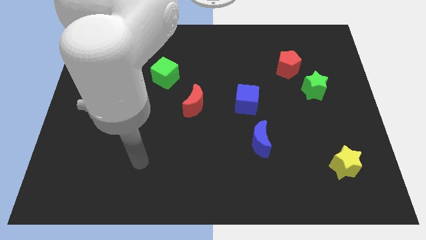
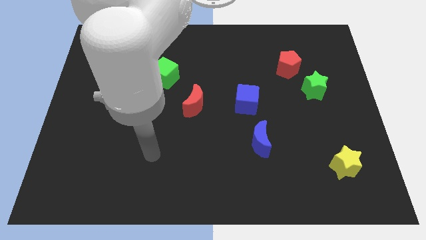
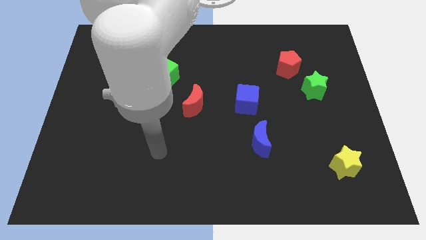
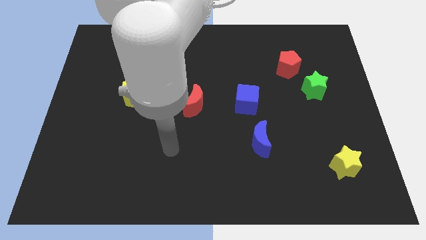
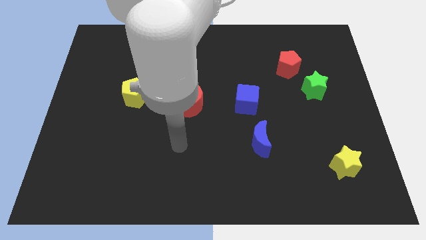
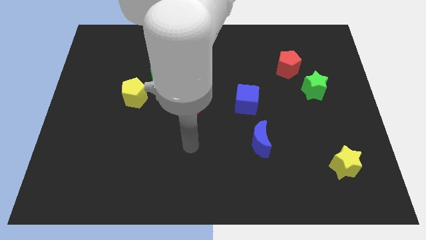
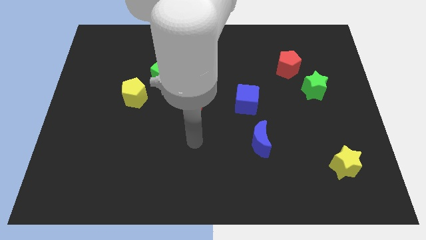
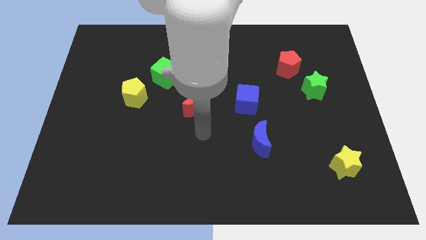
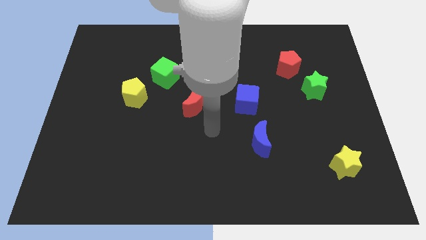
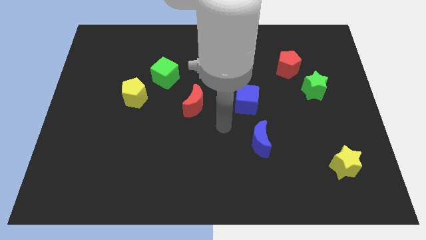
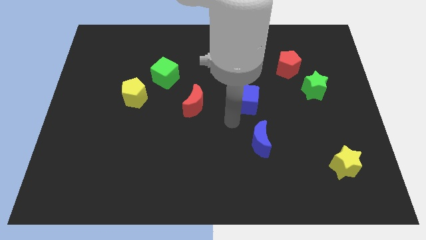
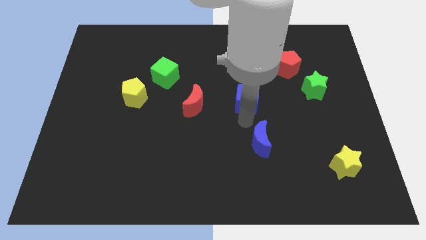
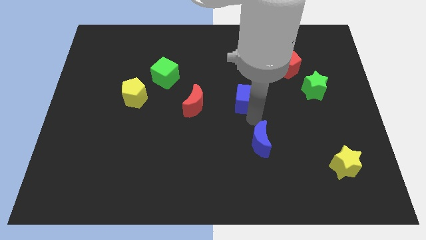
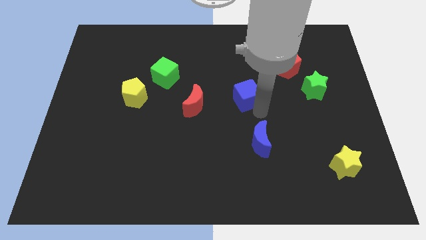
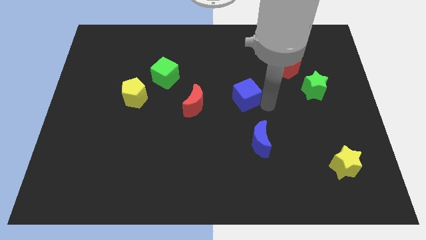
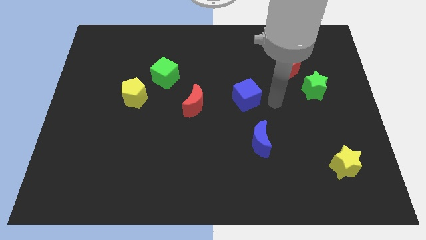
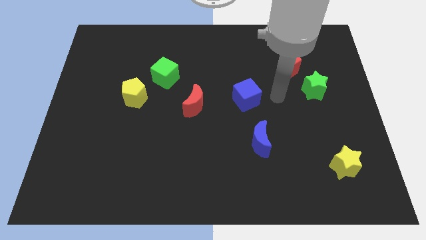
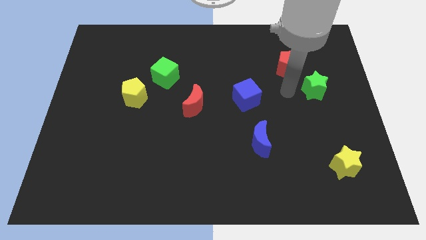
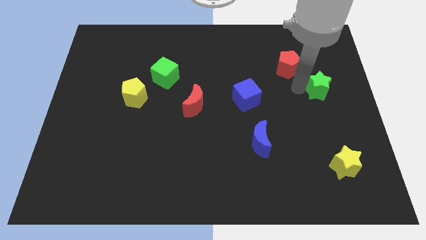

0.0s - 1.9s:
move the red pentagon away from the green star

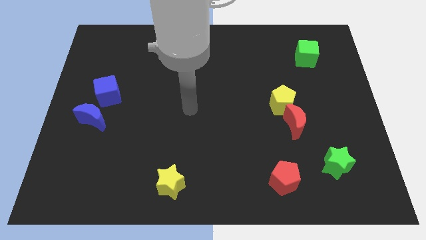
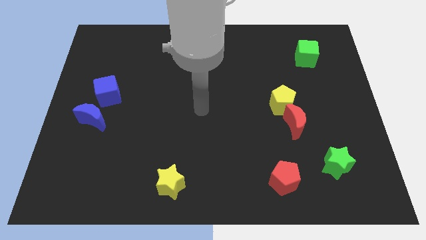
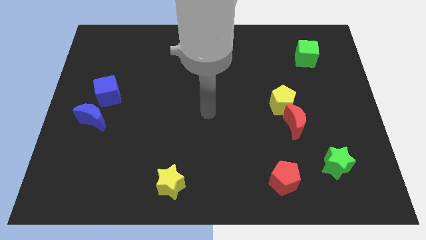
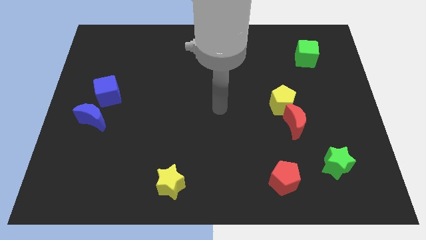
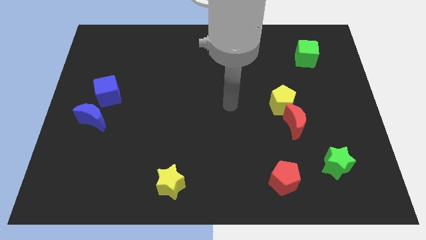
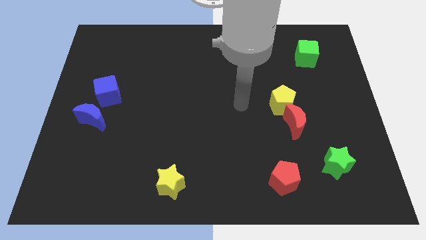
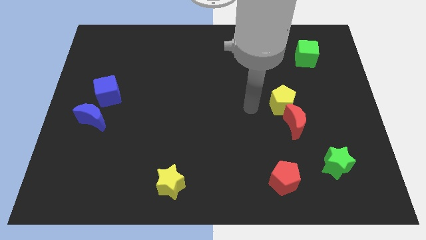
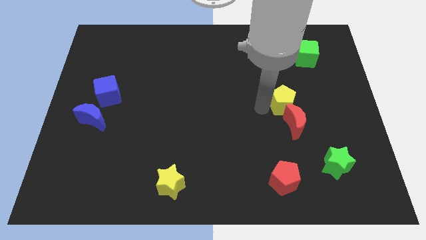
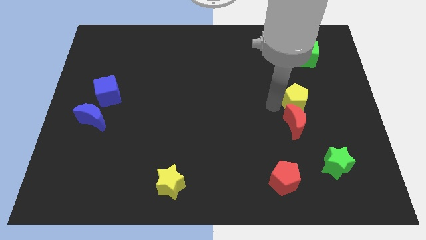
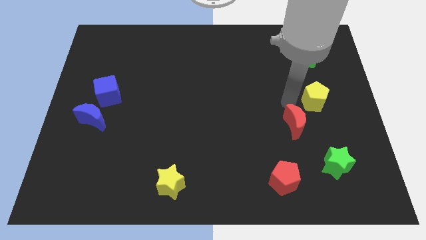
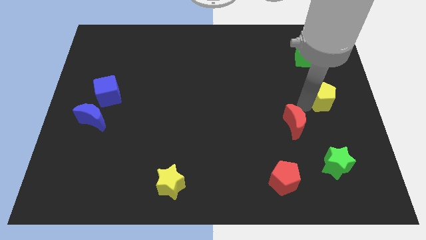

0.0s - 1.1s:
move the red moon away from the yellow pentagon

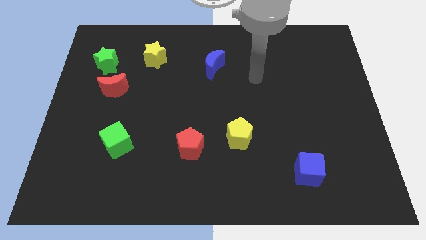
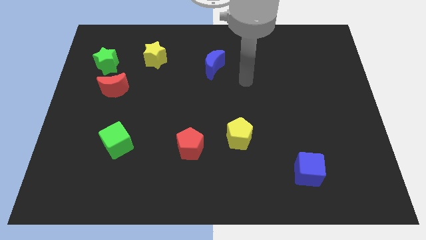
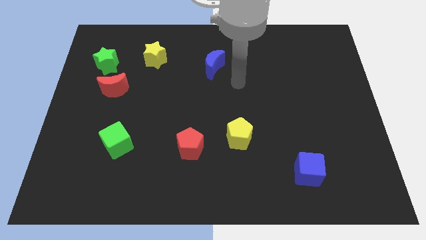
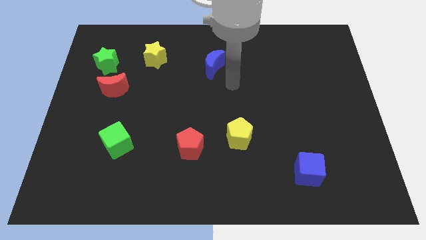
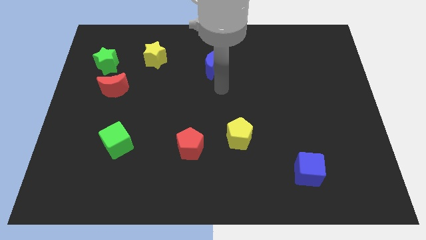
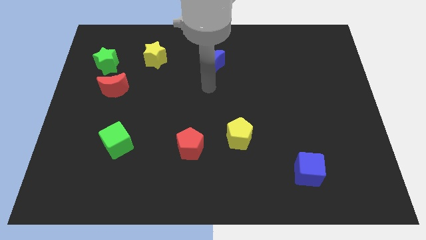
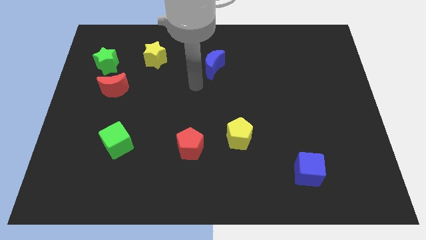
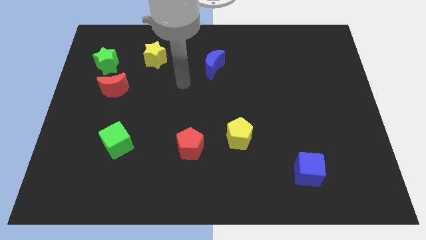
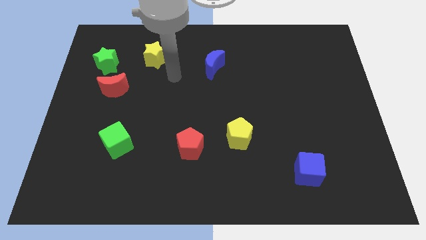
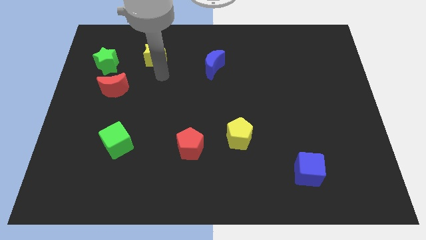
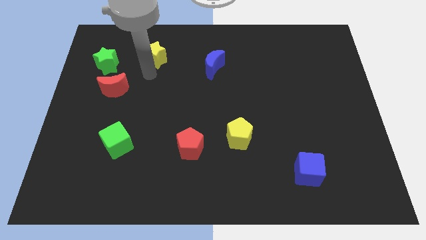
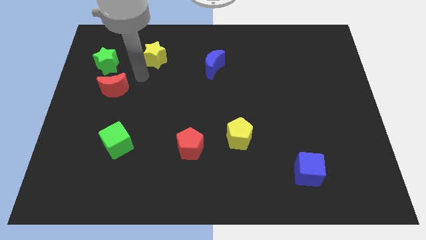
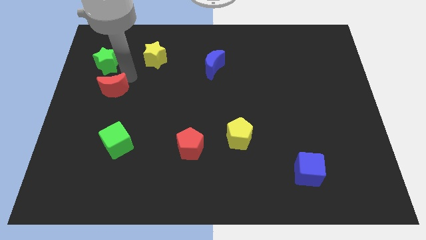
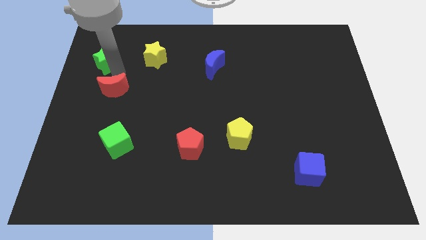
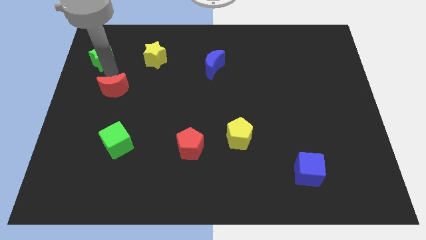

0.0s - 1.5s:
move the red moon away from the green star

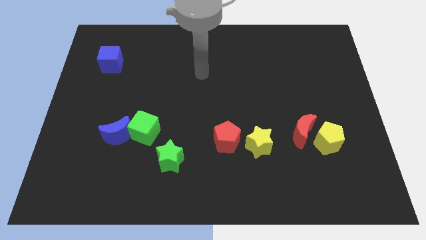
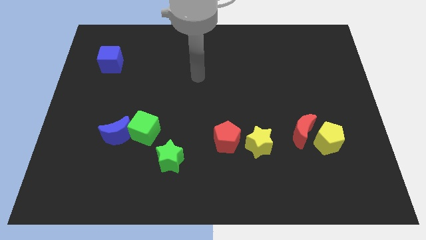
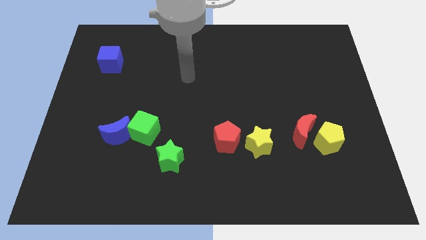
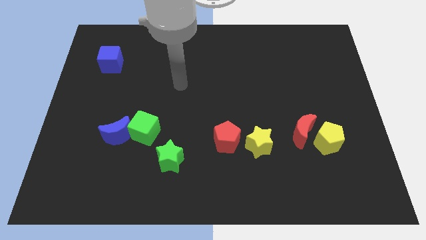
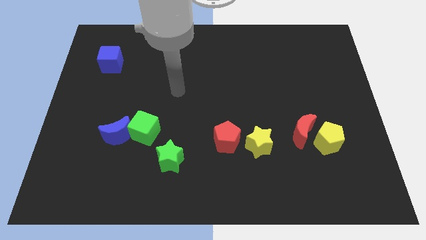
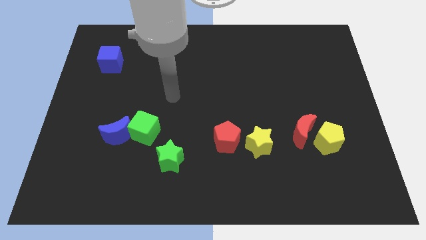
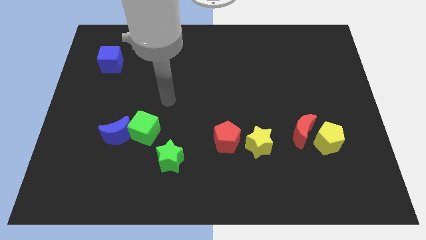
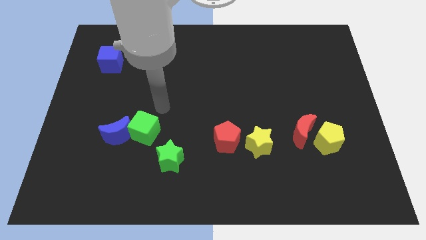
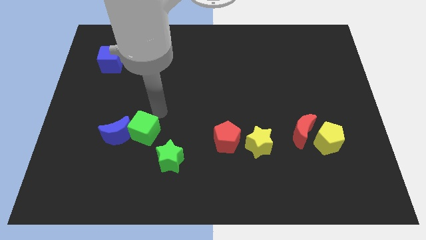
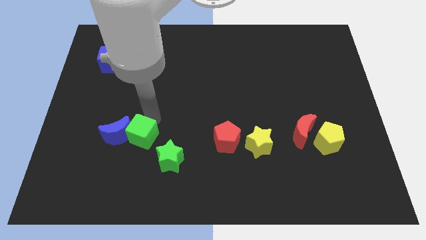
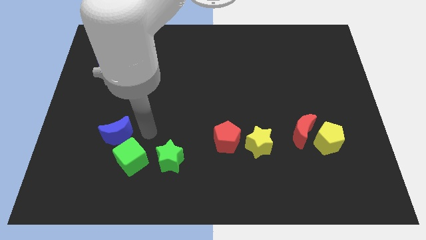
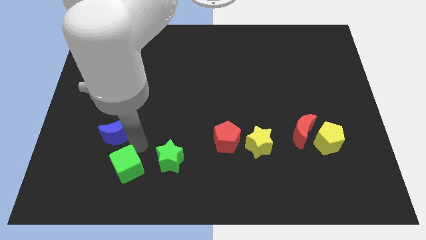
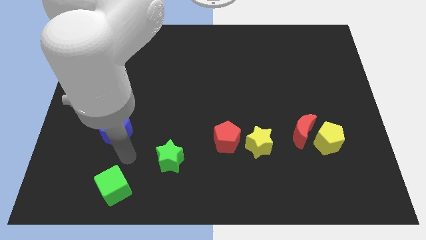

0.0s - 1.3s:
move the blue moon away from the green cube

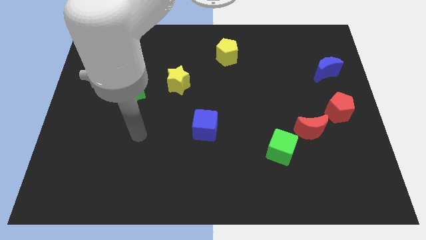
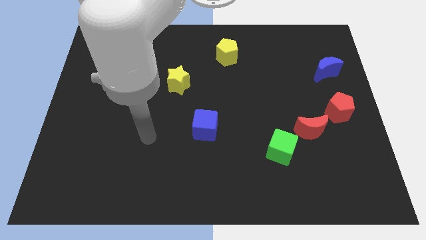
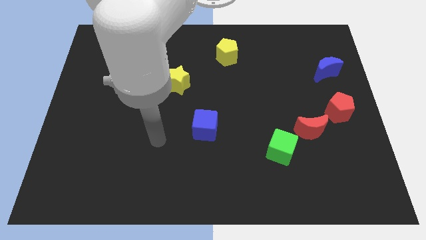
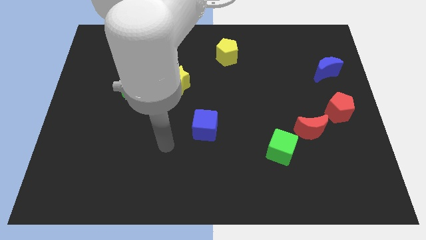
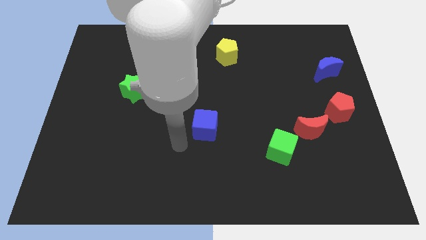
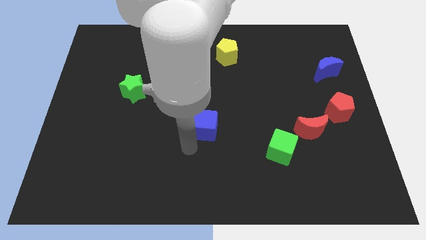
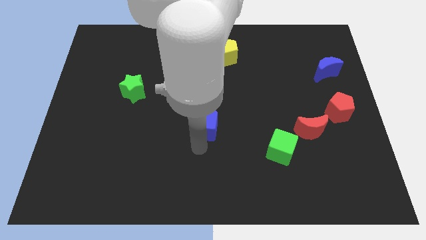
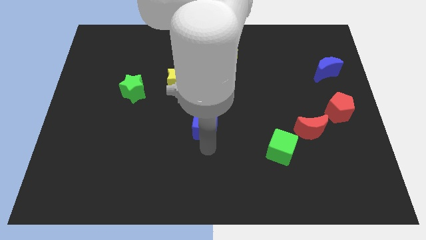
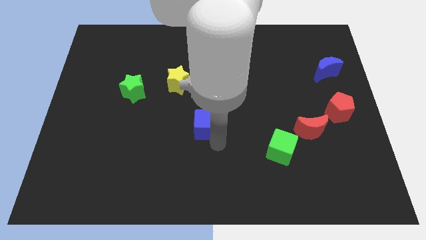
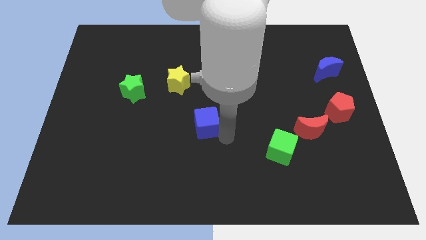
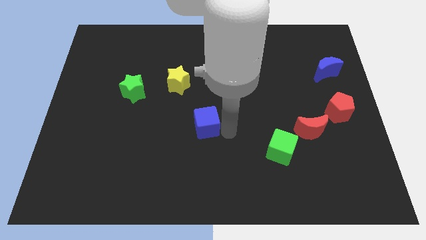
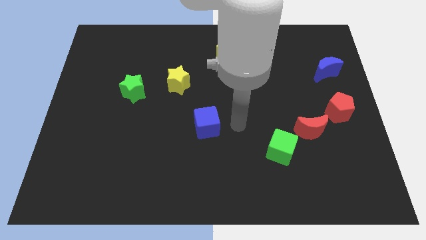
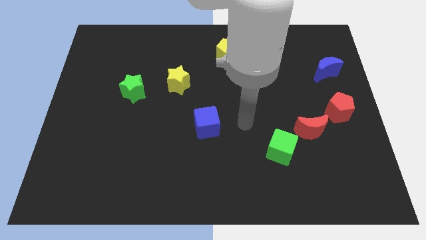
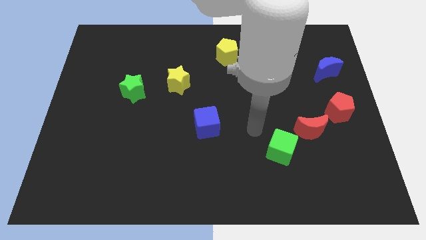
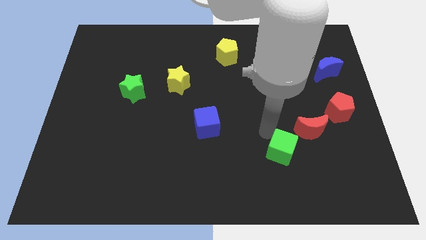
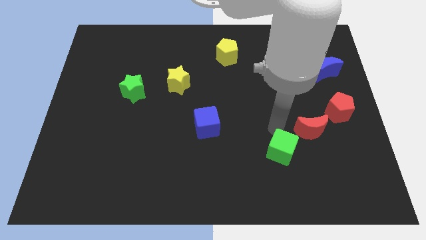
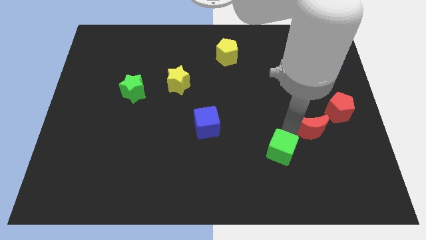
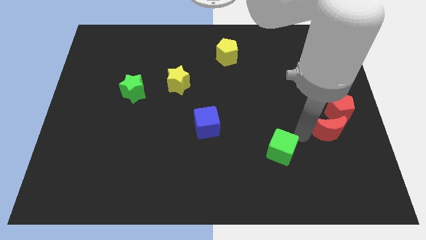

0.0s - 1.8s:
pull the green cube apart from the red moon

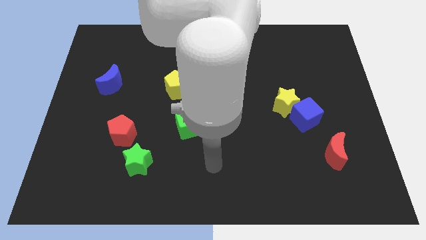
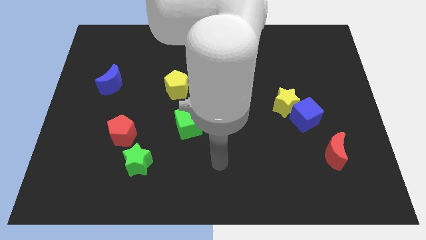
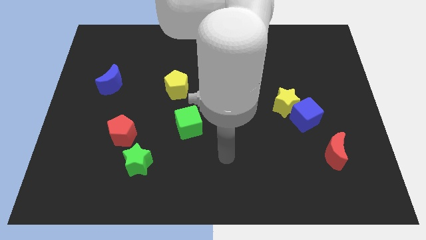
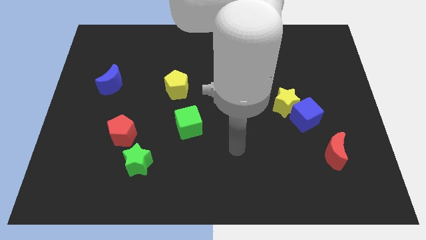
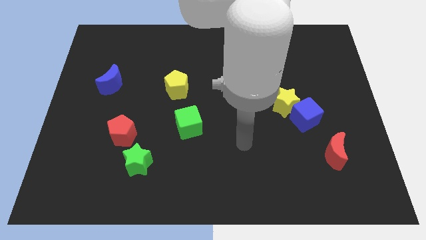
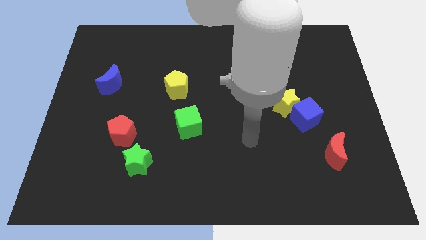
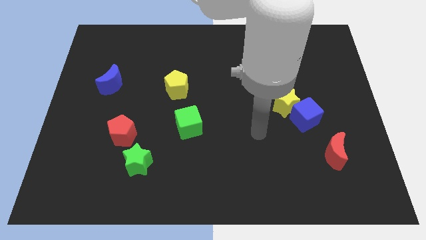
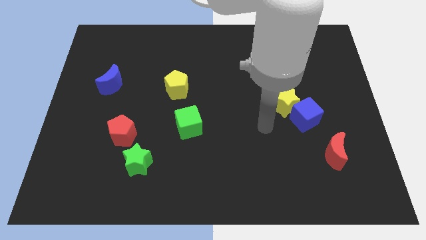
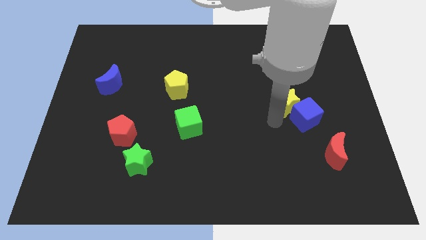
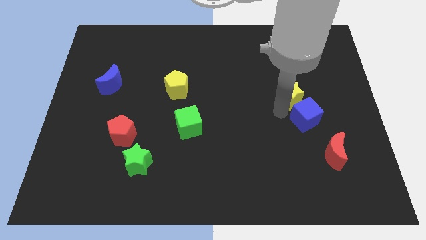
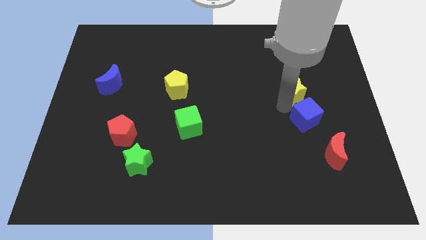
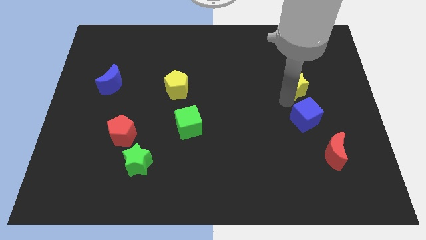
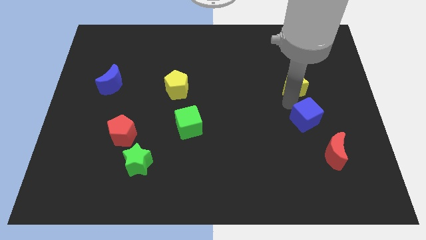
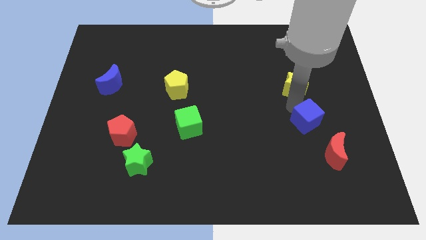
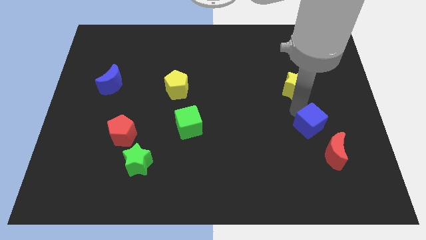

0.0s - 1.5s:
separate the blue cube from the yellow star

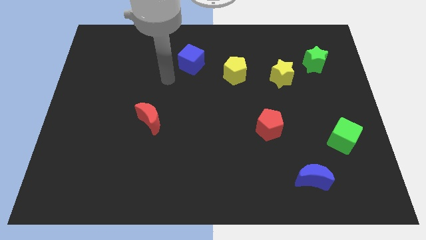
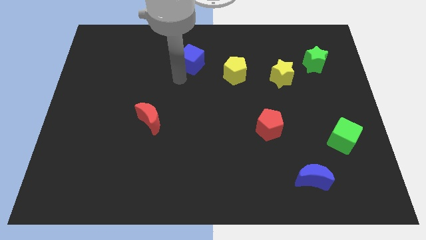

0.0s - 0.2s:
separate the green star from the yellow star
